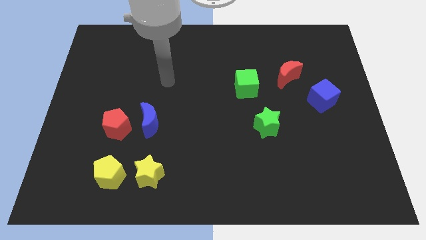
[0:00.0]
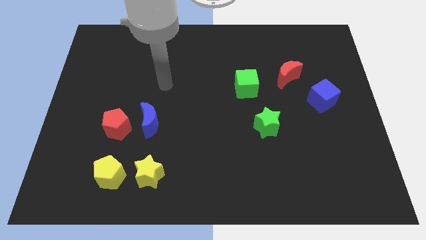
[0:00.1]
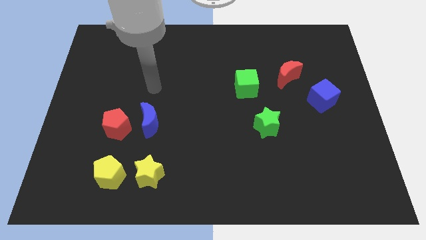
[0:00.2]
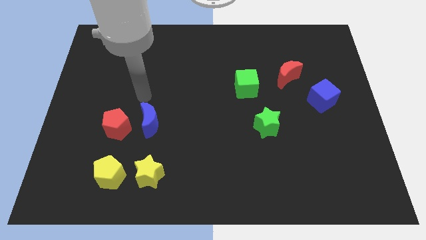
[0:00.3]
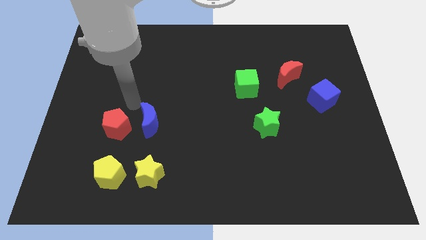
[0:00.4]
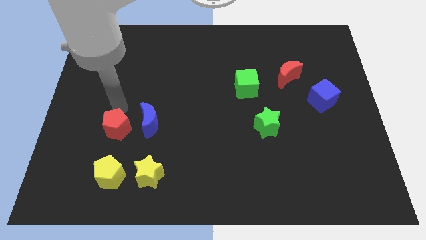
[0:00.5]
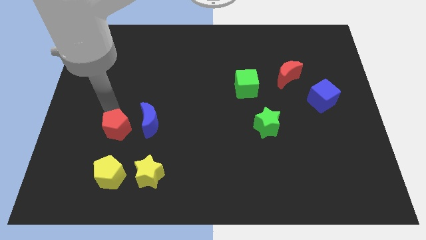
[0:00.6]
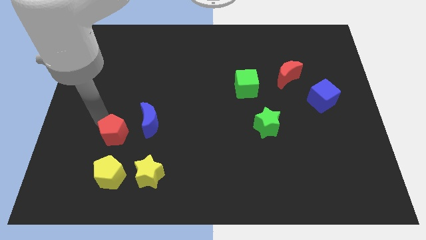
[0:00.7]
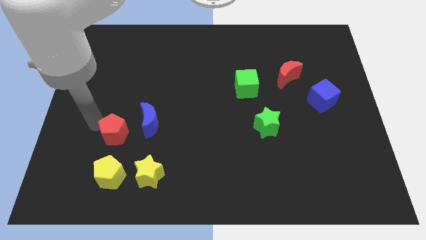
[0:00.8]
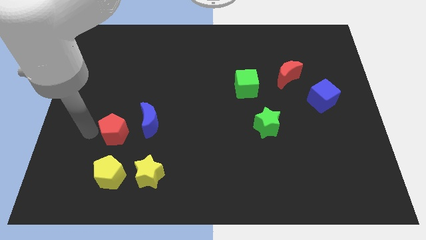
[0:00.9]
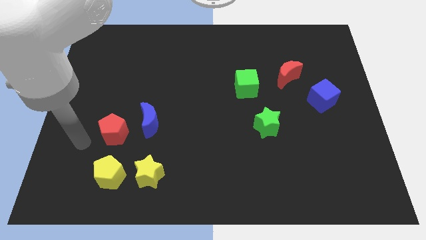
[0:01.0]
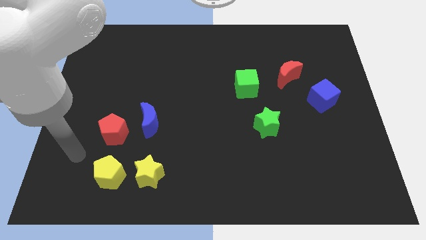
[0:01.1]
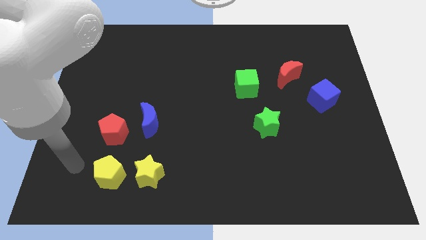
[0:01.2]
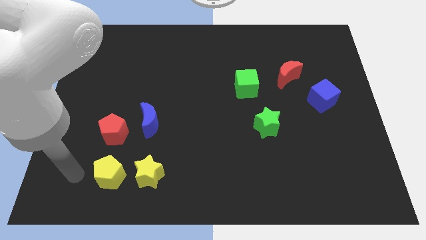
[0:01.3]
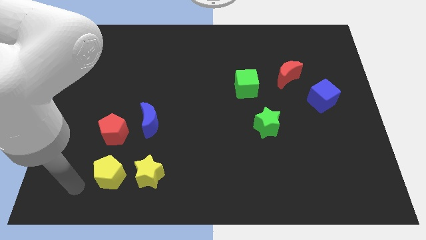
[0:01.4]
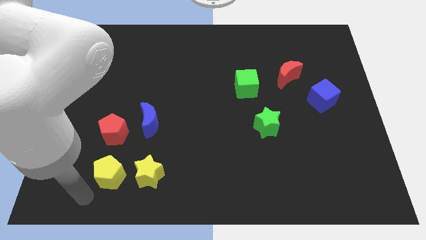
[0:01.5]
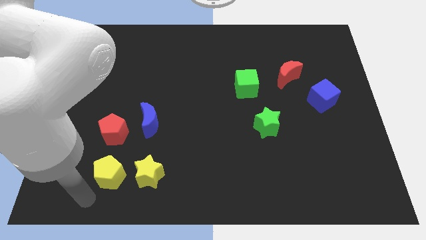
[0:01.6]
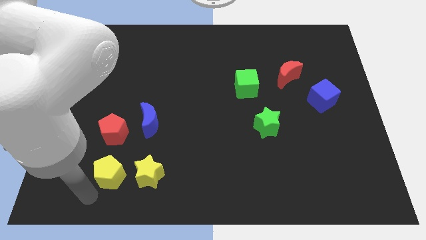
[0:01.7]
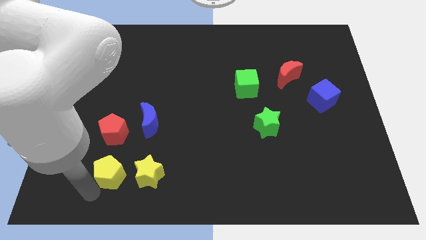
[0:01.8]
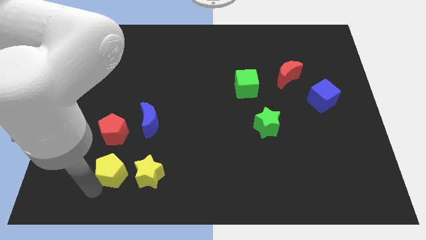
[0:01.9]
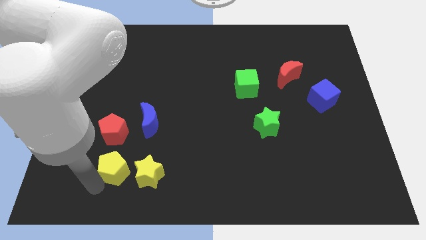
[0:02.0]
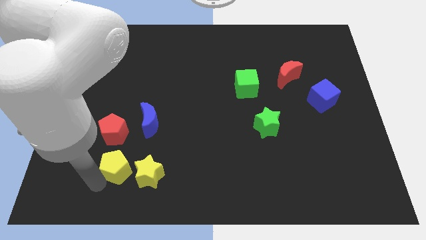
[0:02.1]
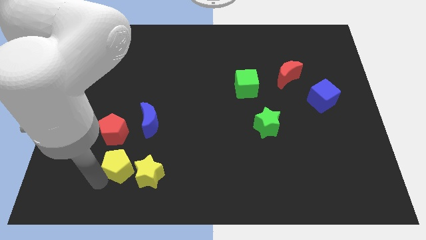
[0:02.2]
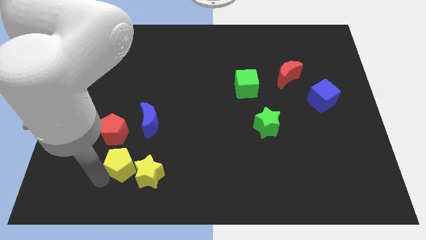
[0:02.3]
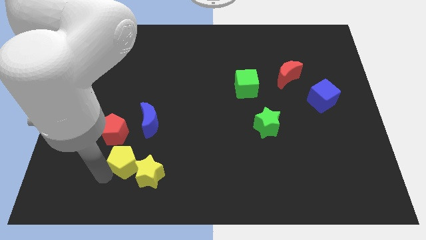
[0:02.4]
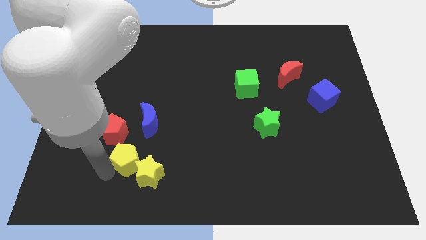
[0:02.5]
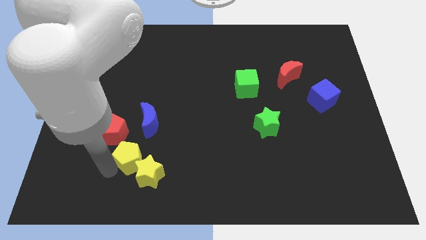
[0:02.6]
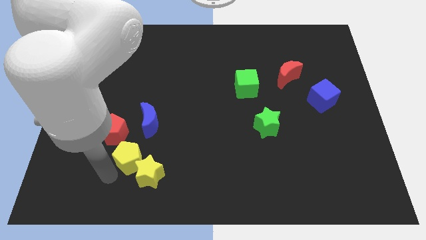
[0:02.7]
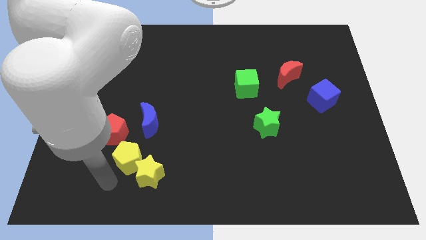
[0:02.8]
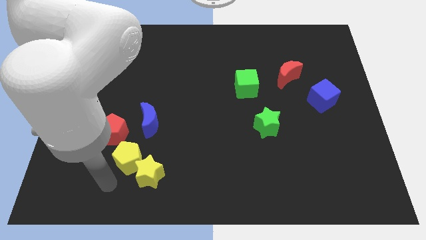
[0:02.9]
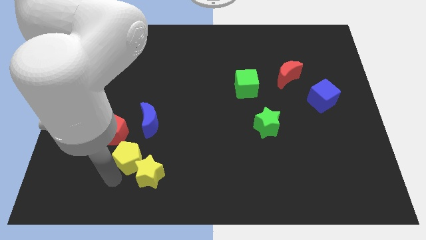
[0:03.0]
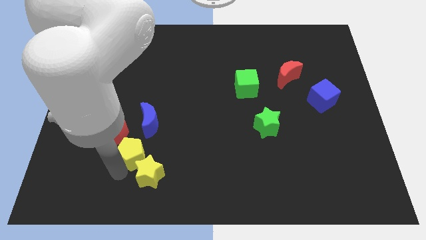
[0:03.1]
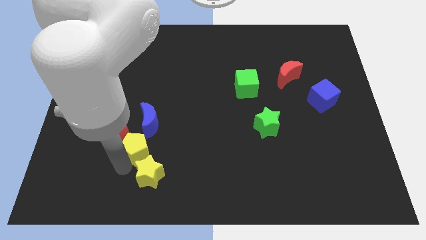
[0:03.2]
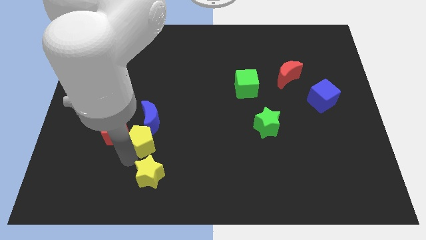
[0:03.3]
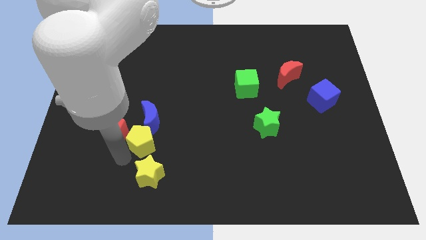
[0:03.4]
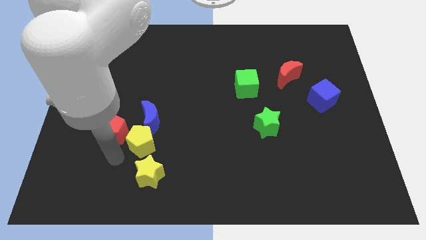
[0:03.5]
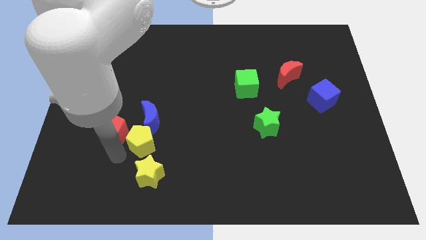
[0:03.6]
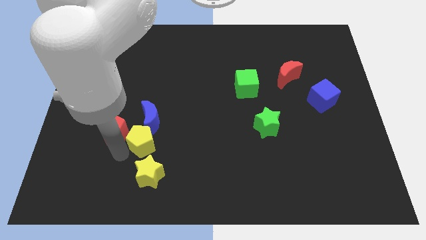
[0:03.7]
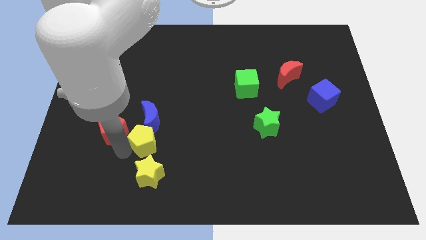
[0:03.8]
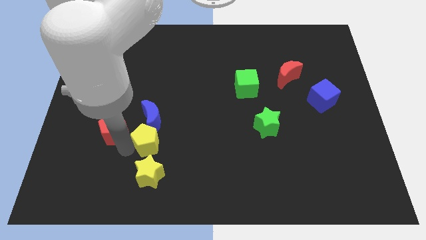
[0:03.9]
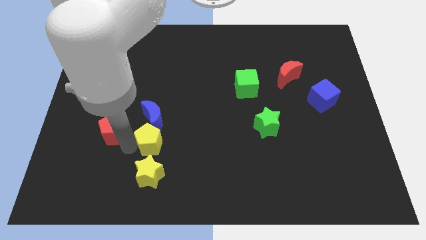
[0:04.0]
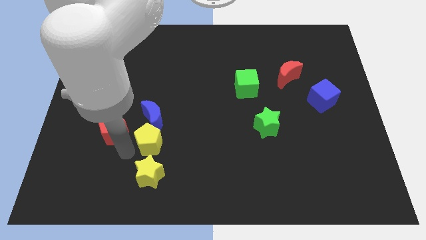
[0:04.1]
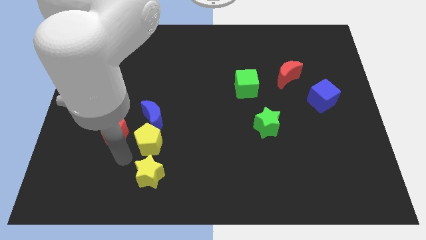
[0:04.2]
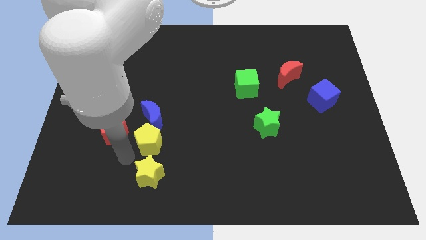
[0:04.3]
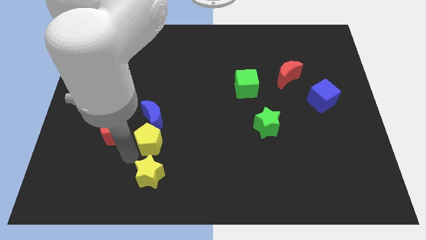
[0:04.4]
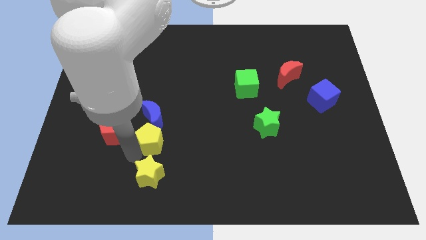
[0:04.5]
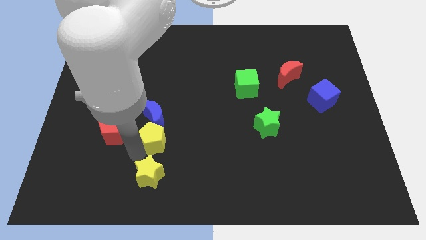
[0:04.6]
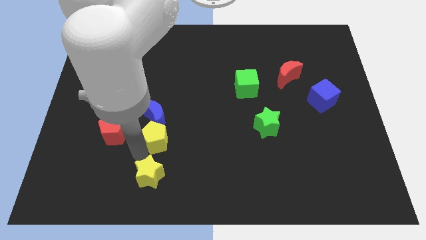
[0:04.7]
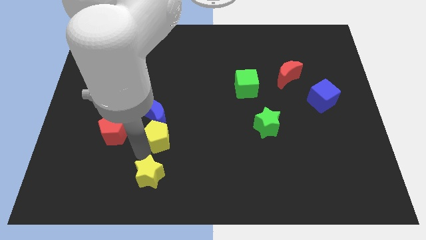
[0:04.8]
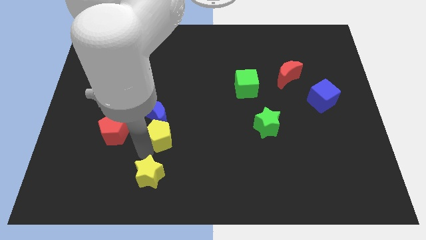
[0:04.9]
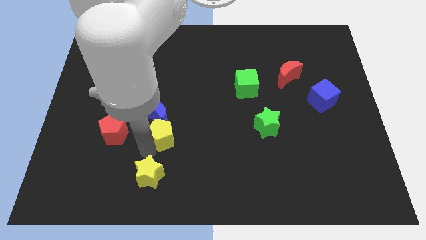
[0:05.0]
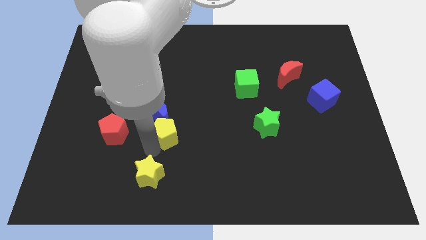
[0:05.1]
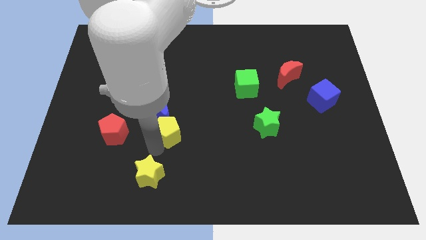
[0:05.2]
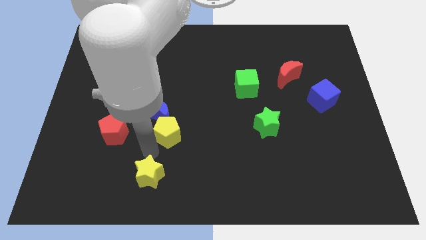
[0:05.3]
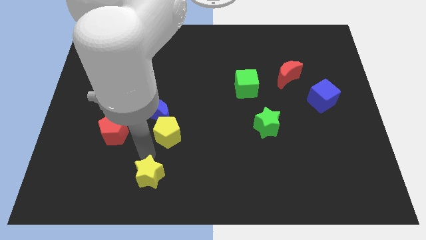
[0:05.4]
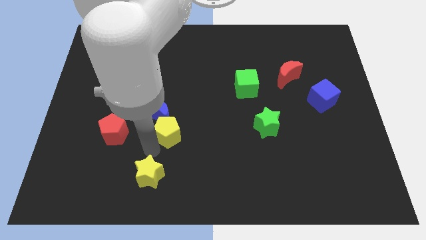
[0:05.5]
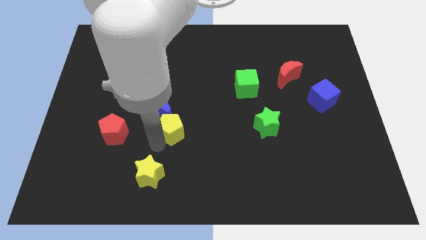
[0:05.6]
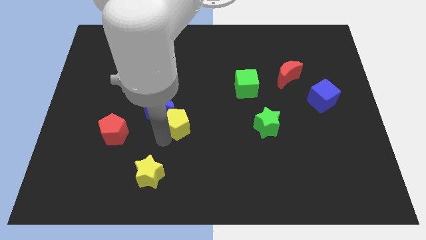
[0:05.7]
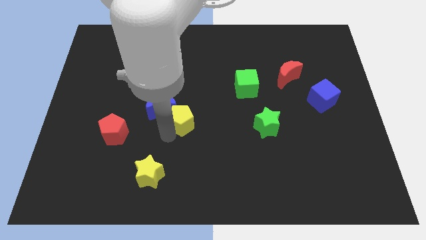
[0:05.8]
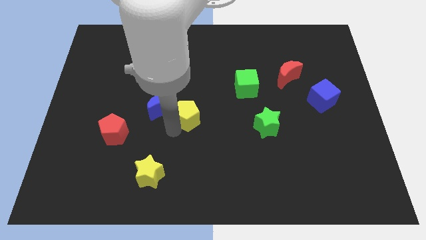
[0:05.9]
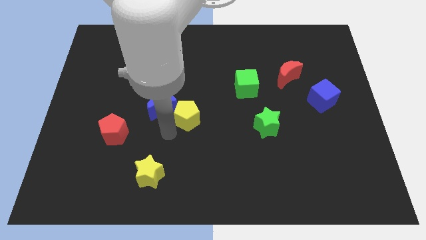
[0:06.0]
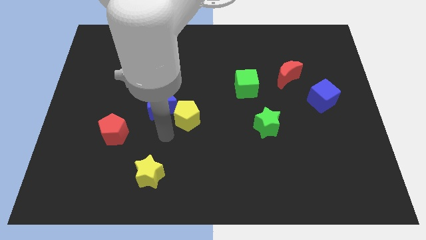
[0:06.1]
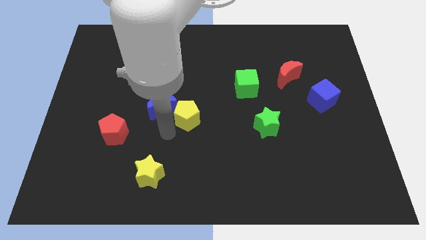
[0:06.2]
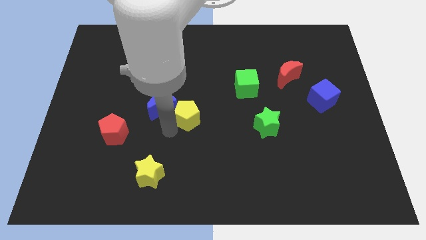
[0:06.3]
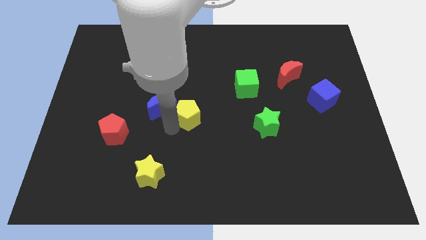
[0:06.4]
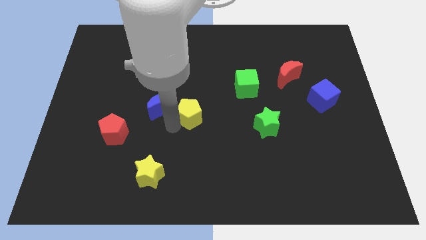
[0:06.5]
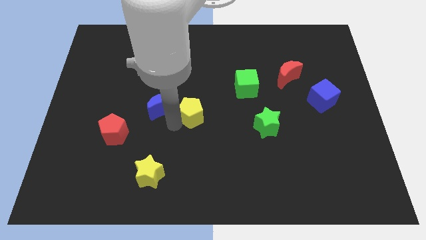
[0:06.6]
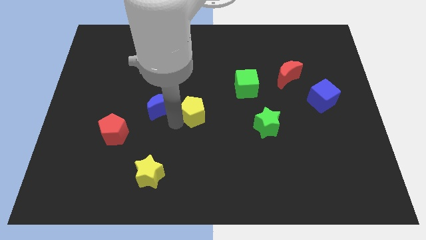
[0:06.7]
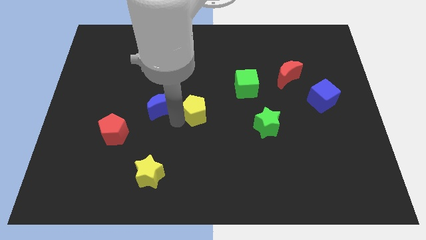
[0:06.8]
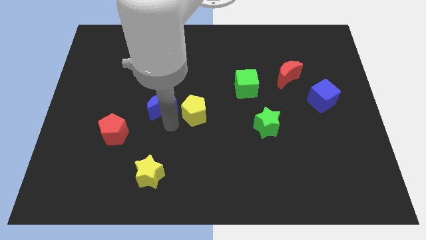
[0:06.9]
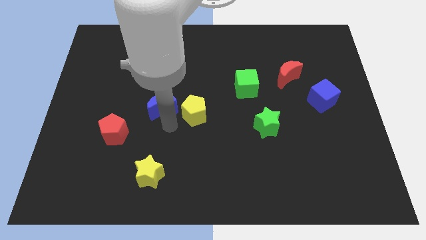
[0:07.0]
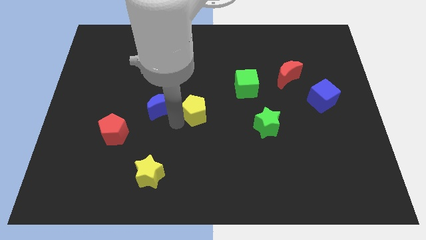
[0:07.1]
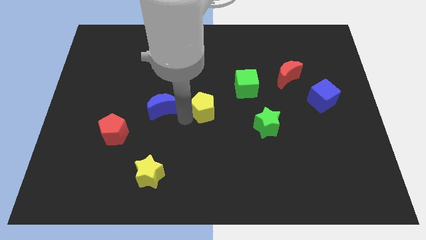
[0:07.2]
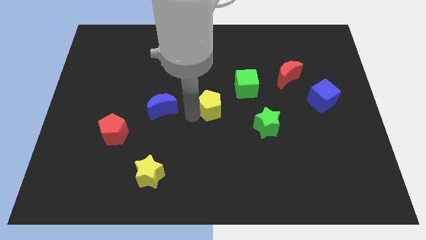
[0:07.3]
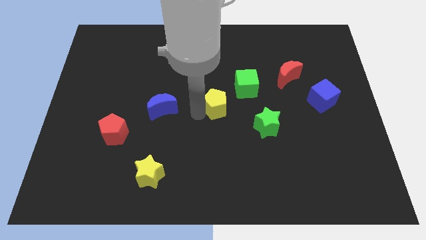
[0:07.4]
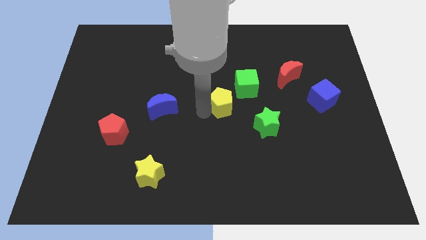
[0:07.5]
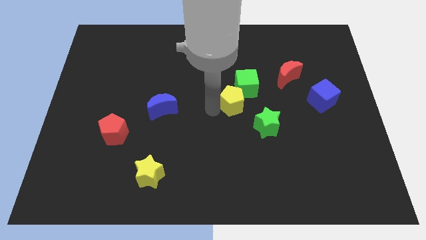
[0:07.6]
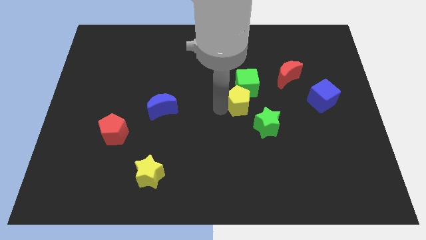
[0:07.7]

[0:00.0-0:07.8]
push the yellow pentagon close to the green cube
